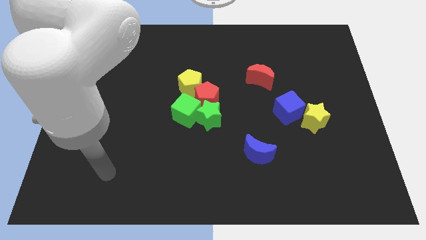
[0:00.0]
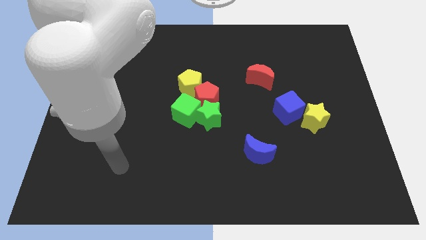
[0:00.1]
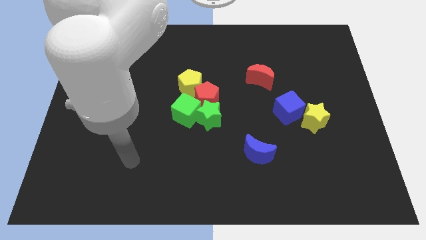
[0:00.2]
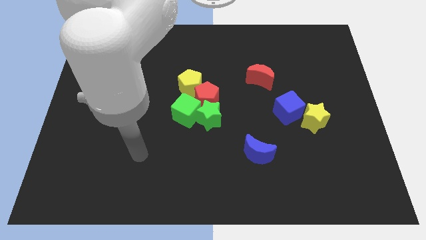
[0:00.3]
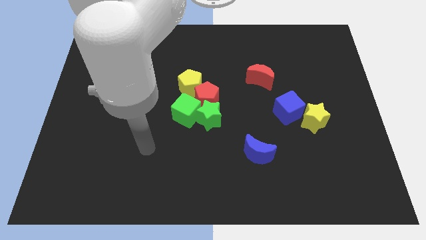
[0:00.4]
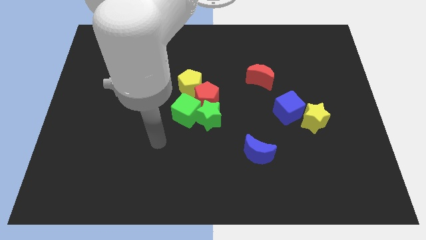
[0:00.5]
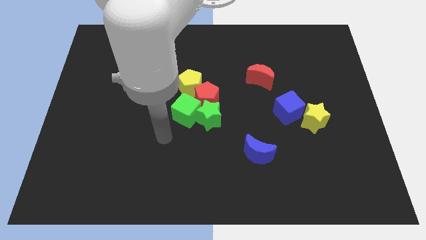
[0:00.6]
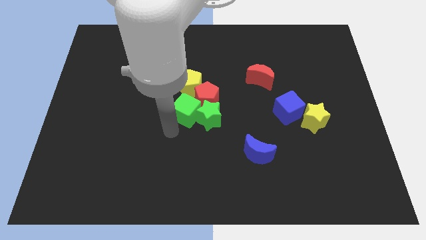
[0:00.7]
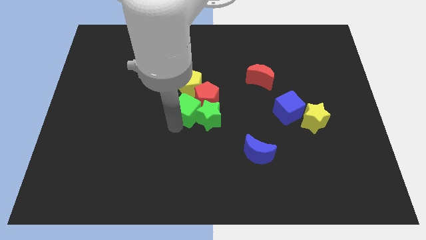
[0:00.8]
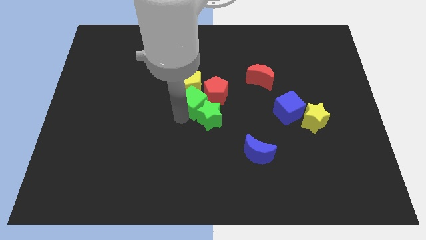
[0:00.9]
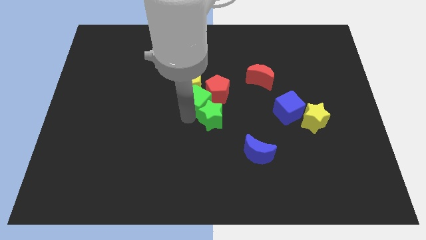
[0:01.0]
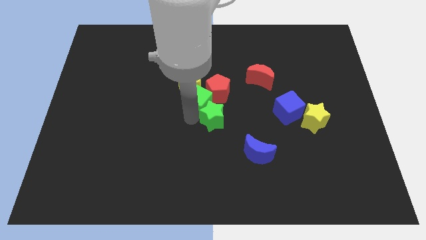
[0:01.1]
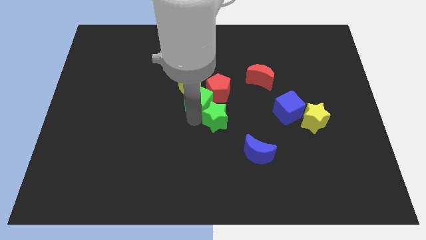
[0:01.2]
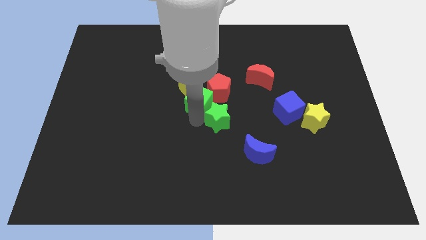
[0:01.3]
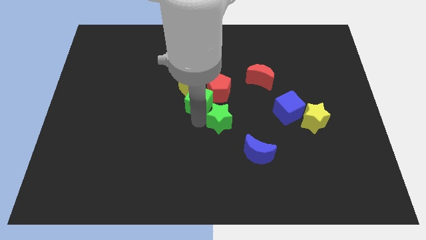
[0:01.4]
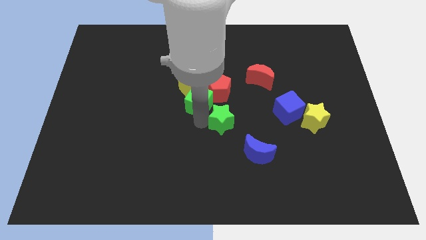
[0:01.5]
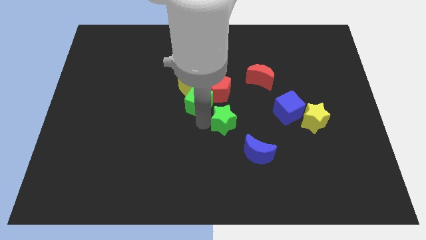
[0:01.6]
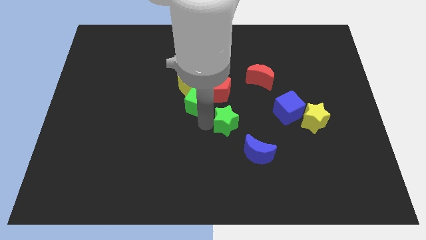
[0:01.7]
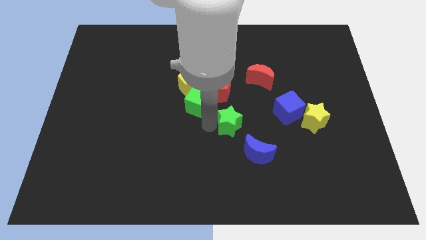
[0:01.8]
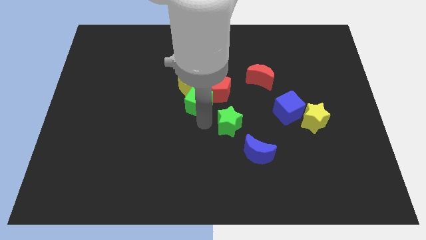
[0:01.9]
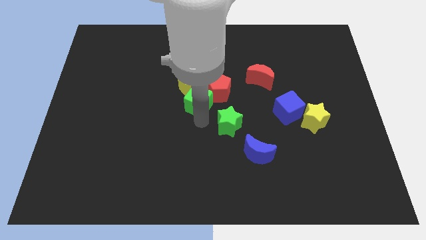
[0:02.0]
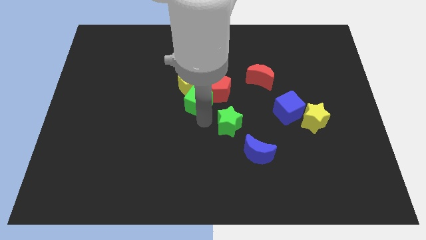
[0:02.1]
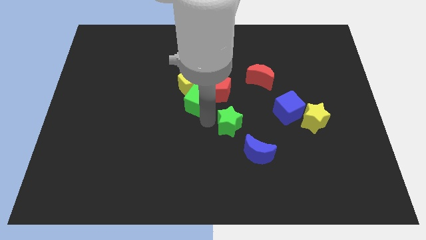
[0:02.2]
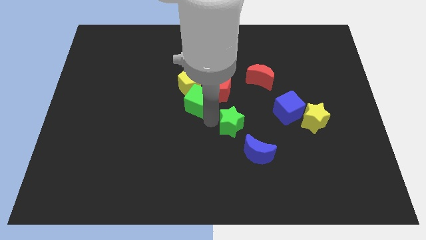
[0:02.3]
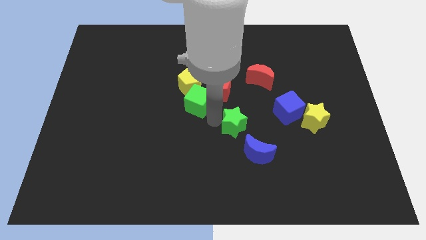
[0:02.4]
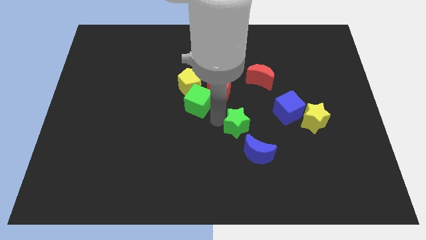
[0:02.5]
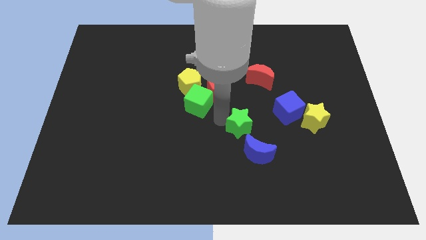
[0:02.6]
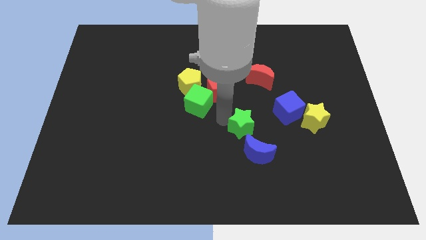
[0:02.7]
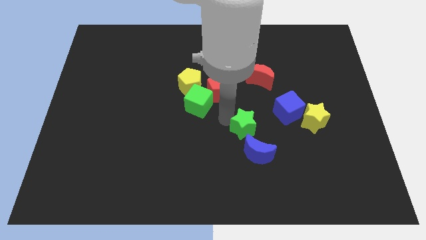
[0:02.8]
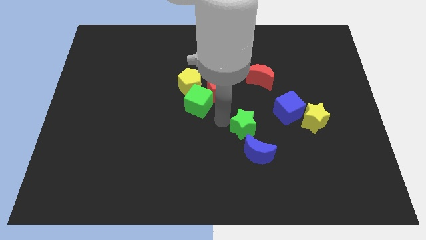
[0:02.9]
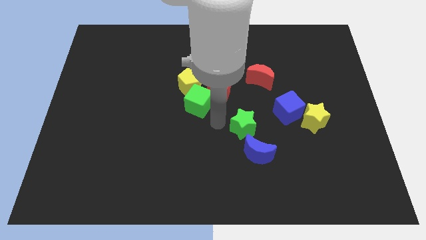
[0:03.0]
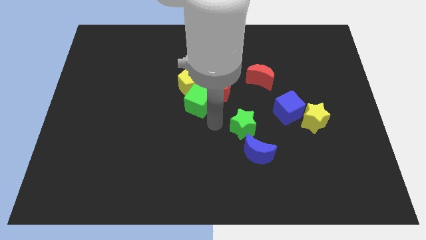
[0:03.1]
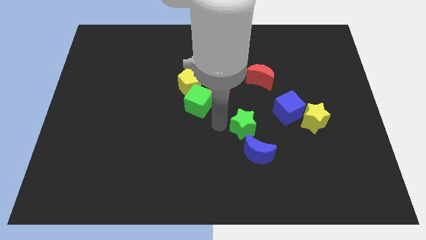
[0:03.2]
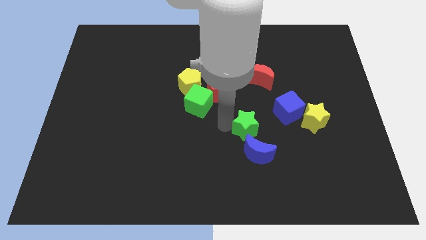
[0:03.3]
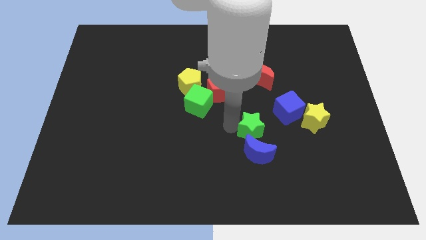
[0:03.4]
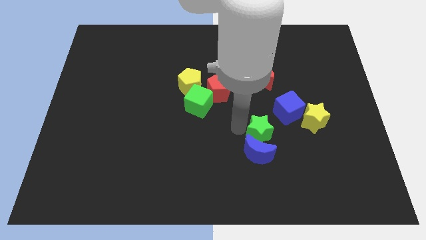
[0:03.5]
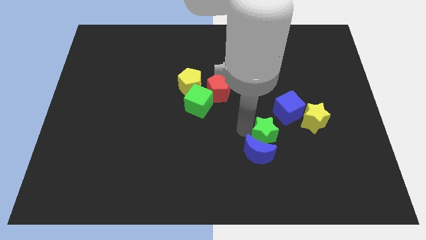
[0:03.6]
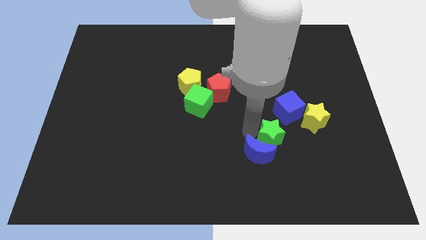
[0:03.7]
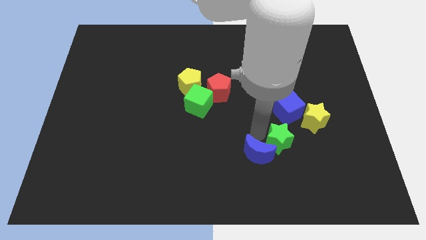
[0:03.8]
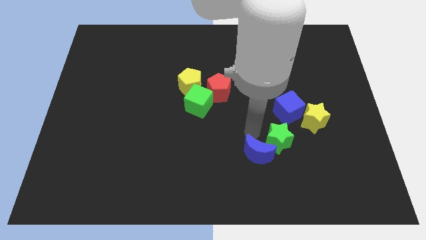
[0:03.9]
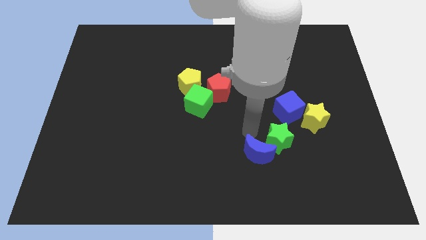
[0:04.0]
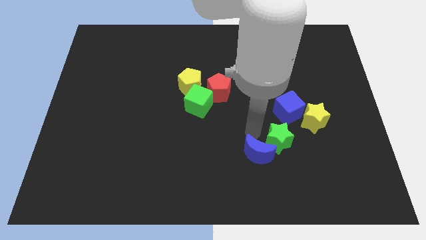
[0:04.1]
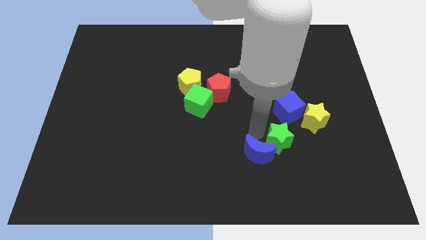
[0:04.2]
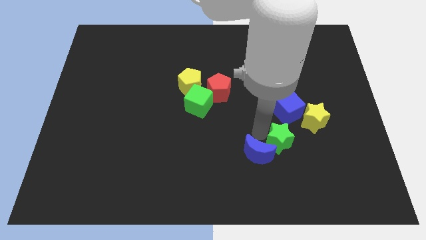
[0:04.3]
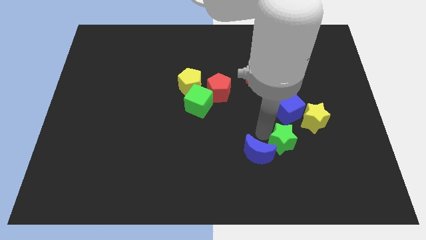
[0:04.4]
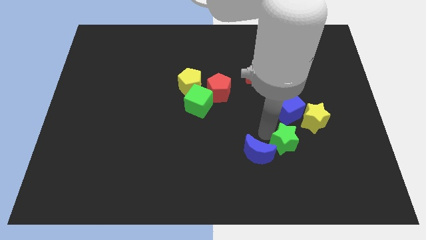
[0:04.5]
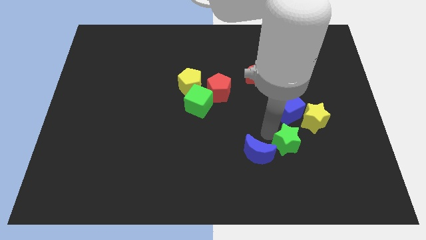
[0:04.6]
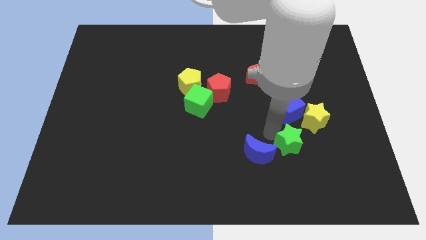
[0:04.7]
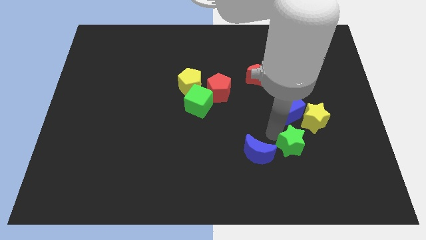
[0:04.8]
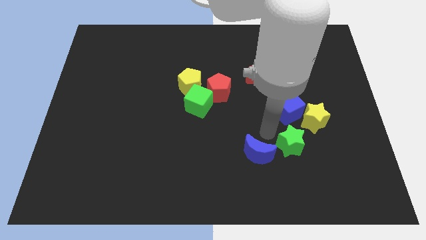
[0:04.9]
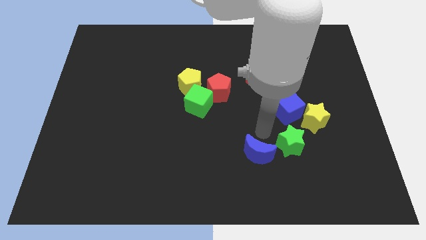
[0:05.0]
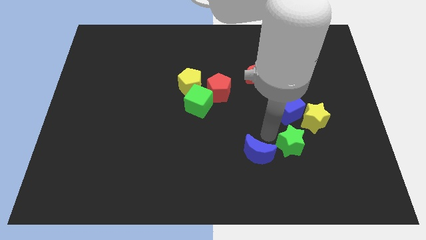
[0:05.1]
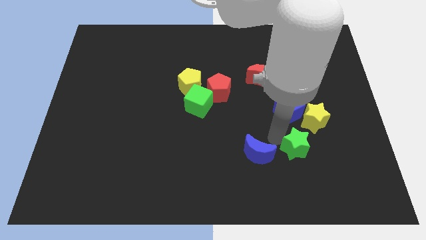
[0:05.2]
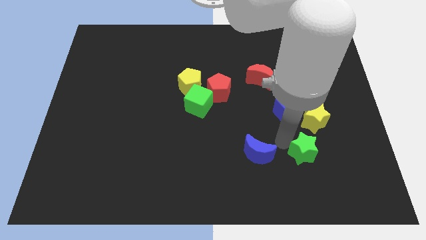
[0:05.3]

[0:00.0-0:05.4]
slide the green star to the bottom side of the yellow star

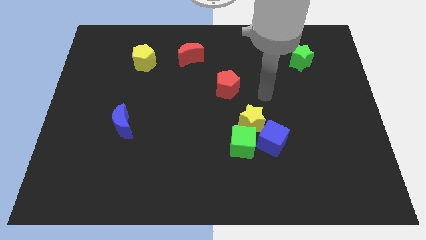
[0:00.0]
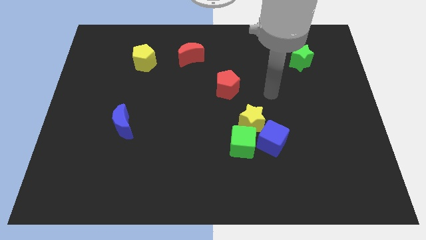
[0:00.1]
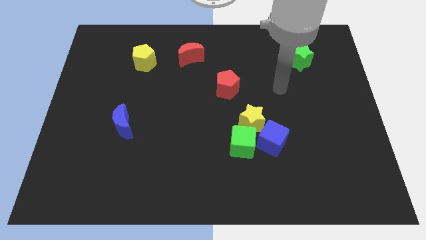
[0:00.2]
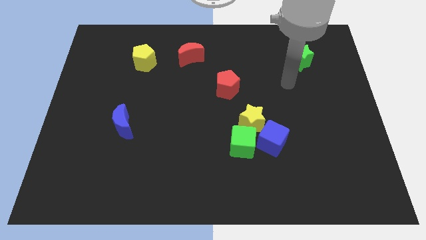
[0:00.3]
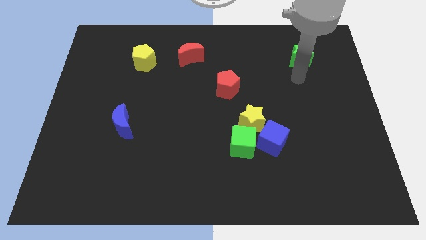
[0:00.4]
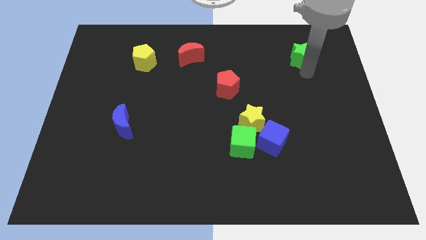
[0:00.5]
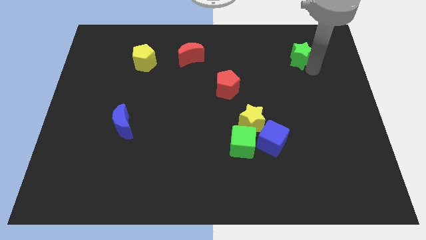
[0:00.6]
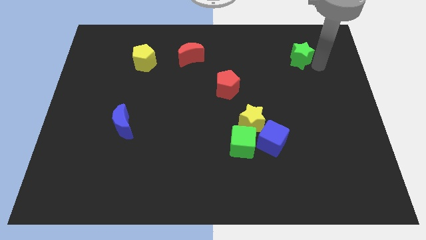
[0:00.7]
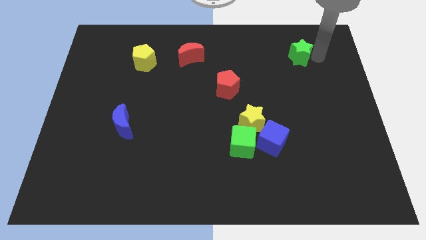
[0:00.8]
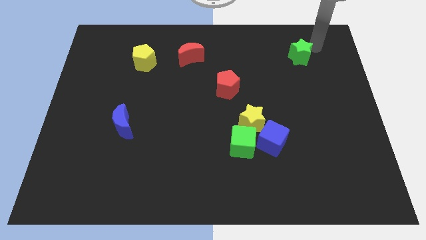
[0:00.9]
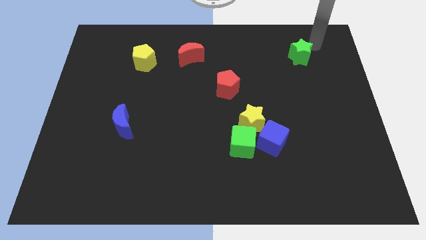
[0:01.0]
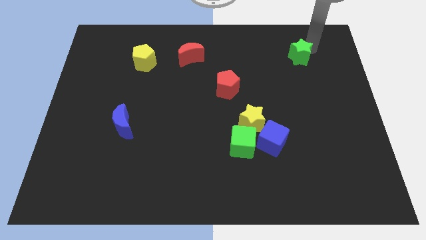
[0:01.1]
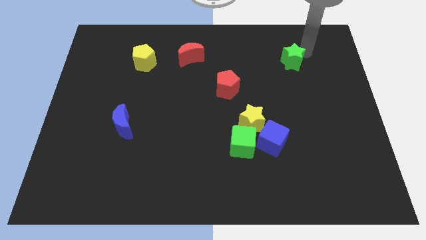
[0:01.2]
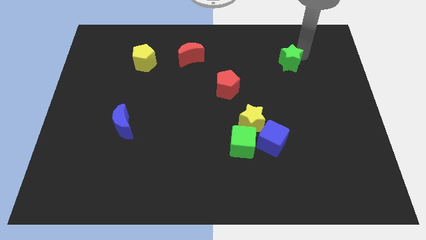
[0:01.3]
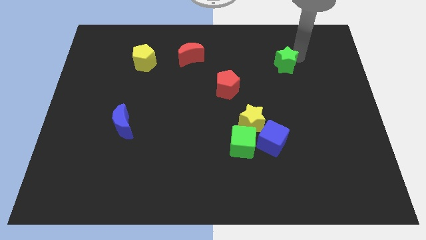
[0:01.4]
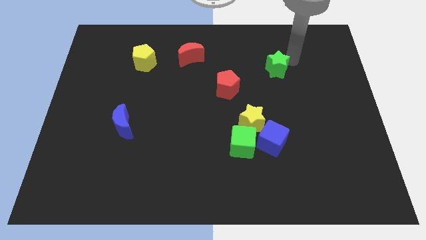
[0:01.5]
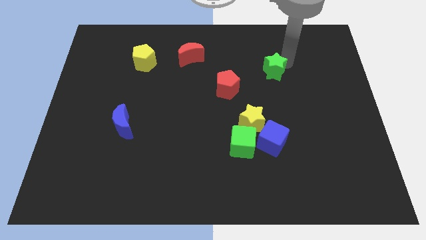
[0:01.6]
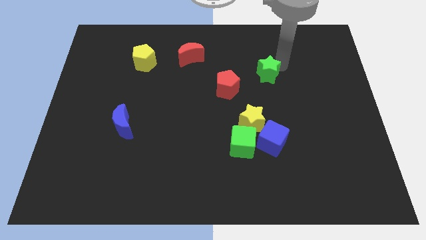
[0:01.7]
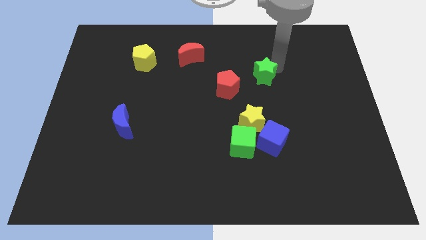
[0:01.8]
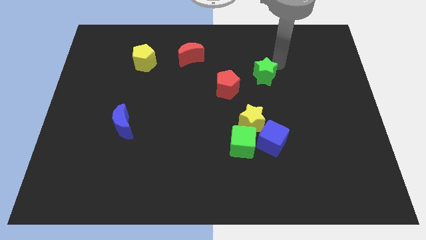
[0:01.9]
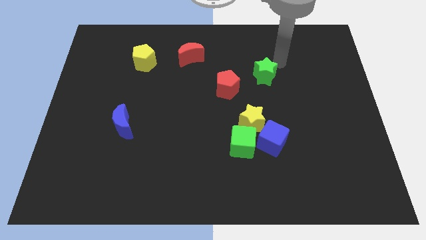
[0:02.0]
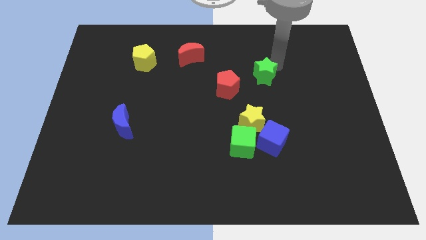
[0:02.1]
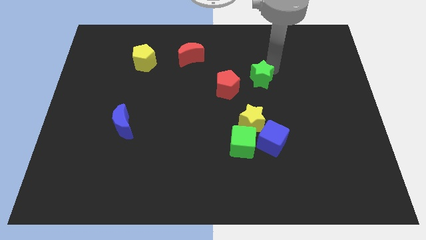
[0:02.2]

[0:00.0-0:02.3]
move the green star to the top side of the yellow star
